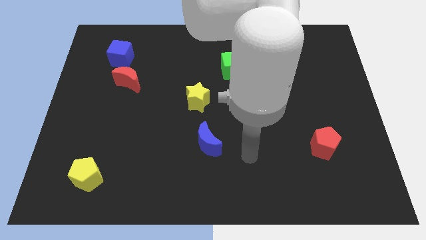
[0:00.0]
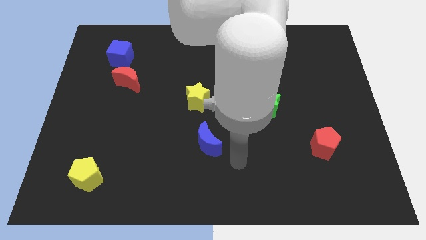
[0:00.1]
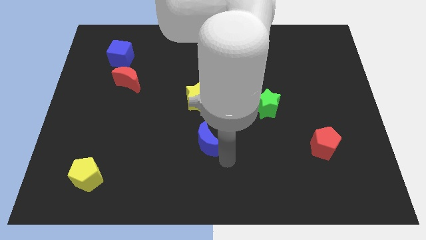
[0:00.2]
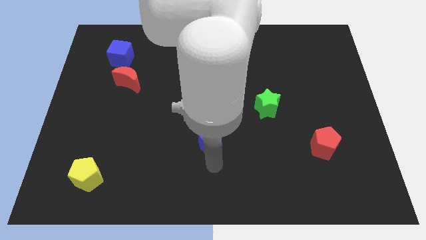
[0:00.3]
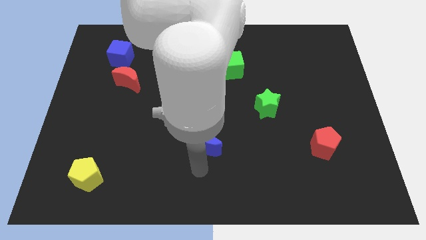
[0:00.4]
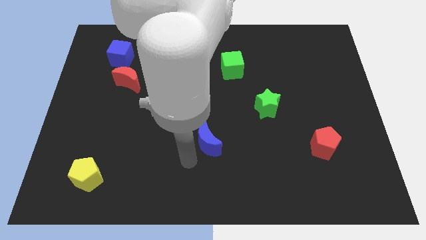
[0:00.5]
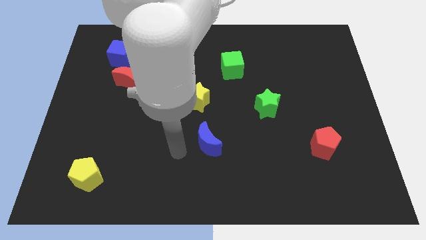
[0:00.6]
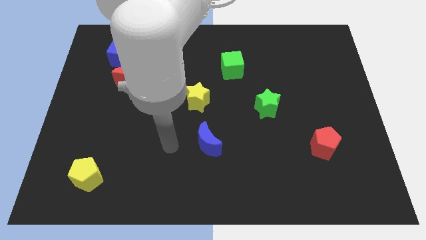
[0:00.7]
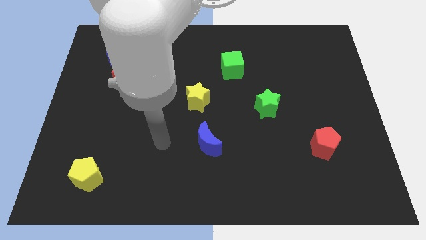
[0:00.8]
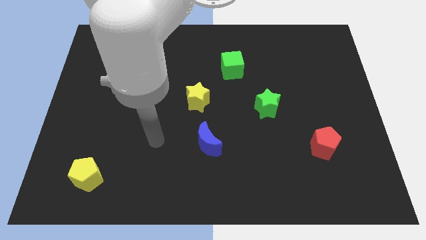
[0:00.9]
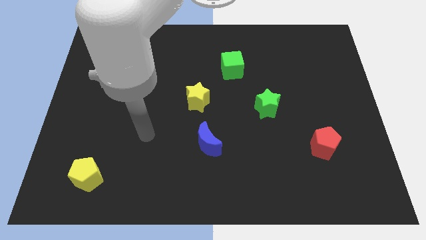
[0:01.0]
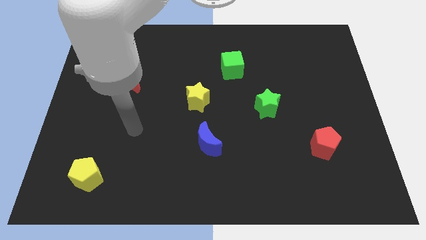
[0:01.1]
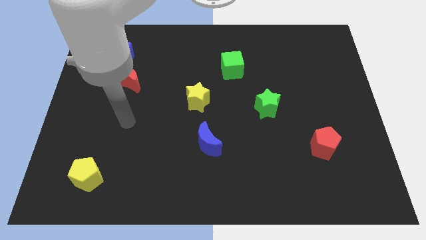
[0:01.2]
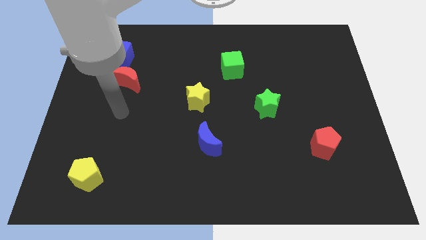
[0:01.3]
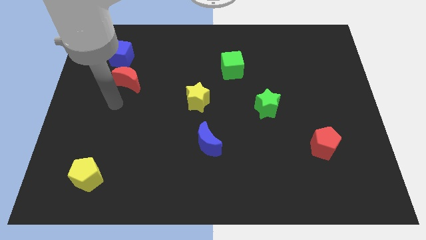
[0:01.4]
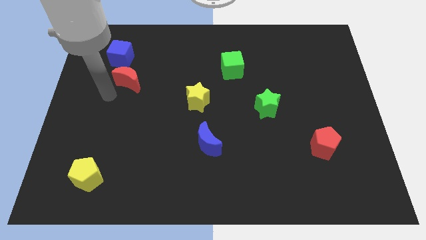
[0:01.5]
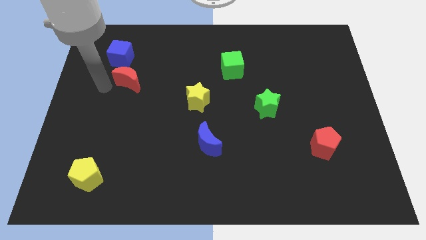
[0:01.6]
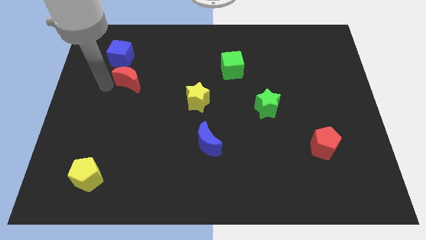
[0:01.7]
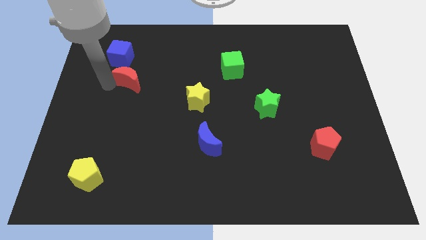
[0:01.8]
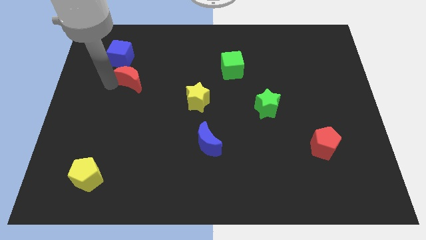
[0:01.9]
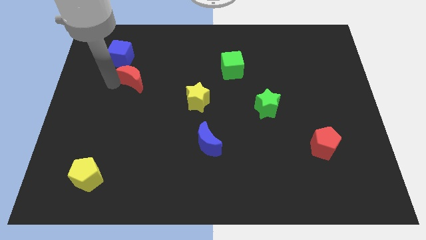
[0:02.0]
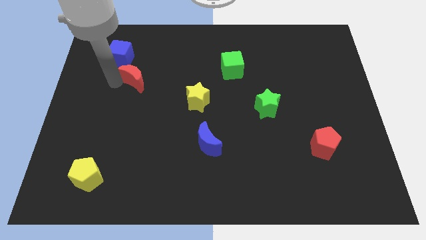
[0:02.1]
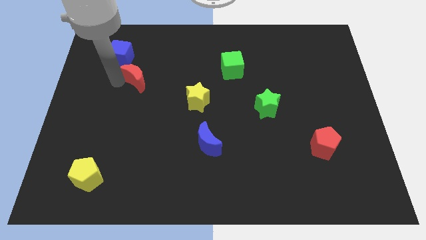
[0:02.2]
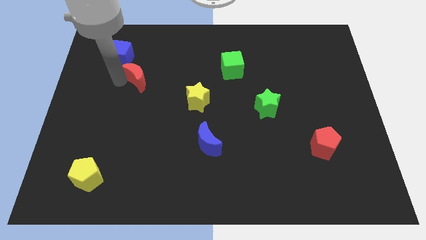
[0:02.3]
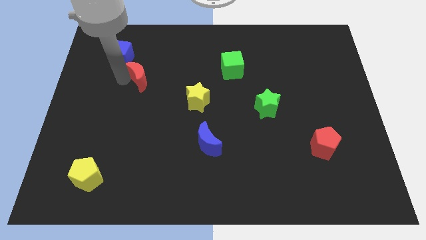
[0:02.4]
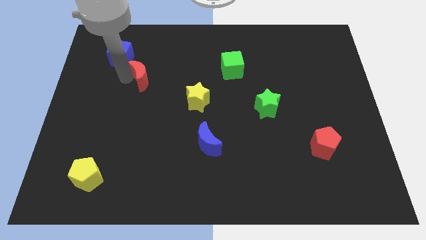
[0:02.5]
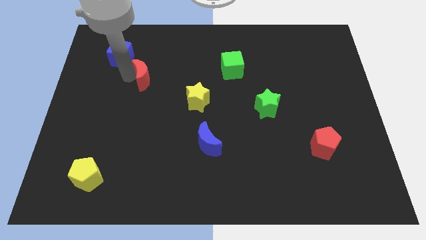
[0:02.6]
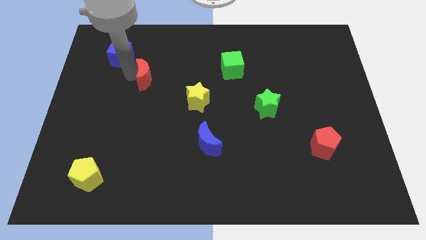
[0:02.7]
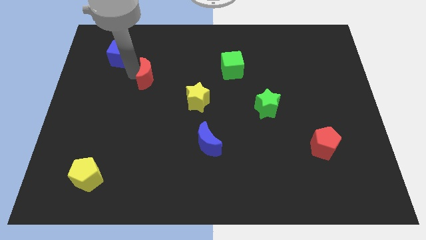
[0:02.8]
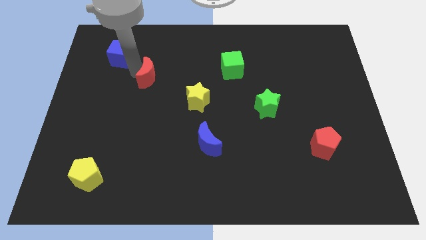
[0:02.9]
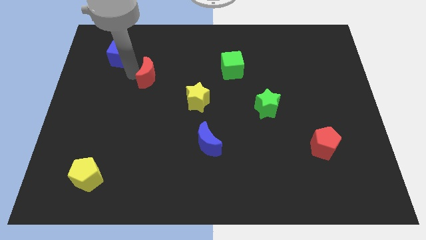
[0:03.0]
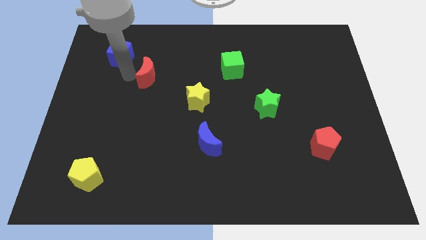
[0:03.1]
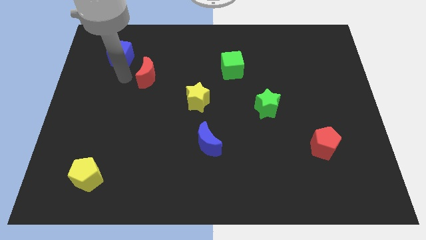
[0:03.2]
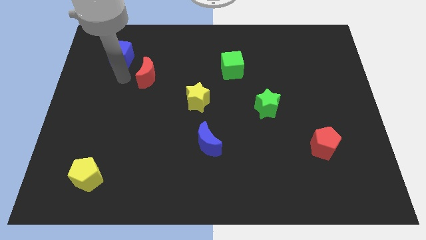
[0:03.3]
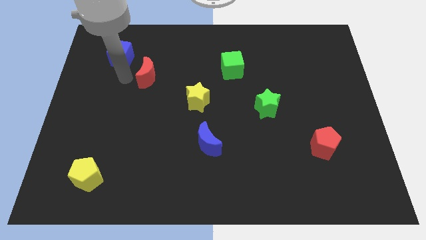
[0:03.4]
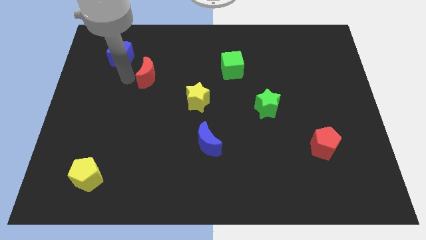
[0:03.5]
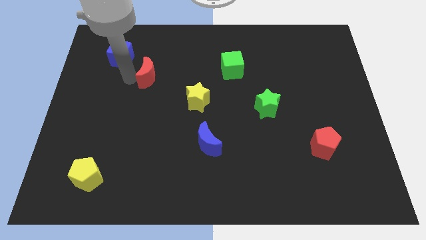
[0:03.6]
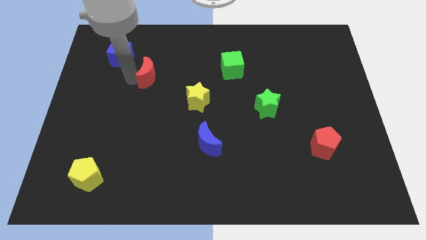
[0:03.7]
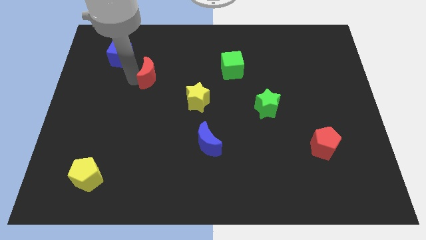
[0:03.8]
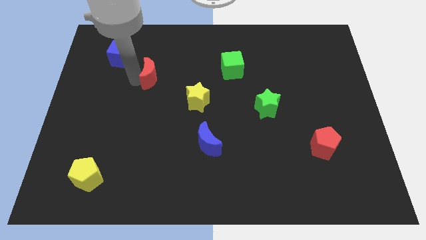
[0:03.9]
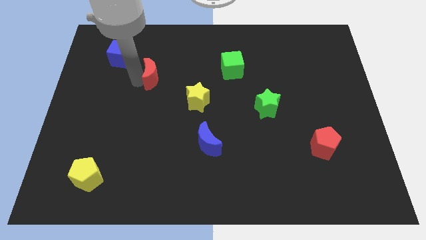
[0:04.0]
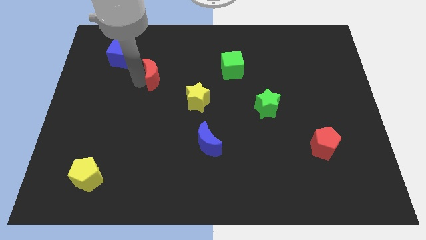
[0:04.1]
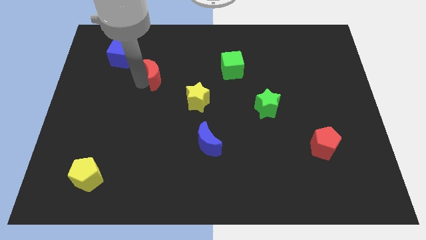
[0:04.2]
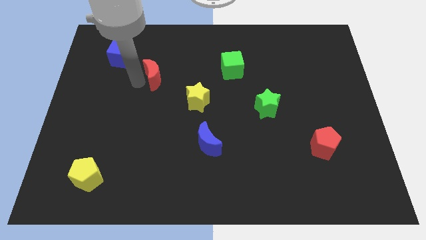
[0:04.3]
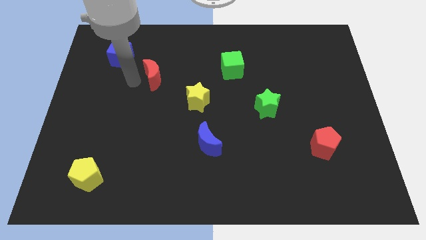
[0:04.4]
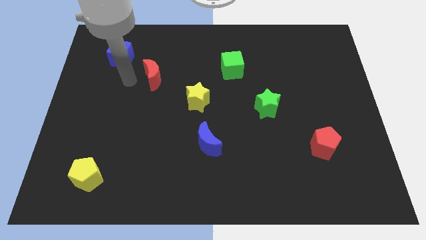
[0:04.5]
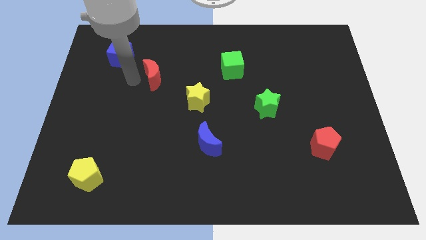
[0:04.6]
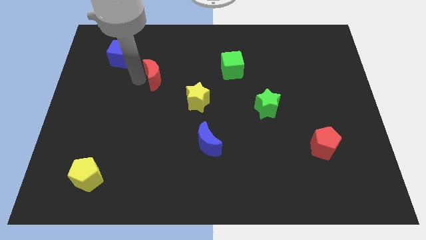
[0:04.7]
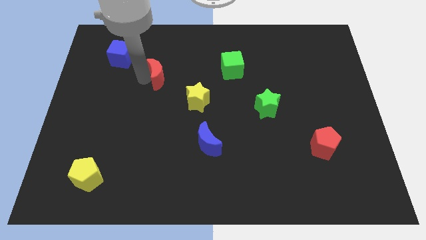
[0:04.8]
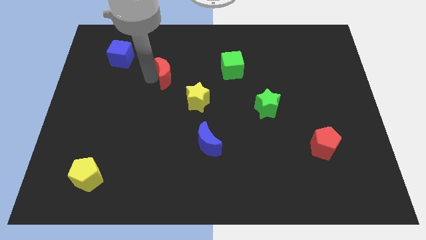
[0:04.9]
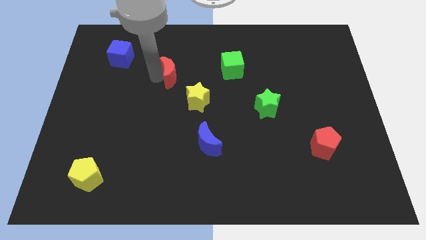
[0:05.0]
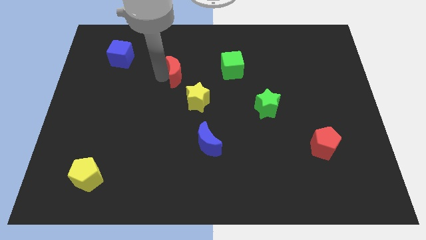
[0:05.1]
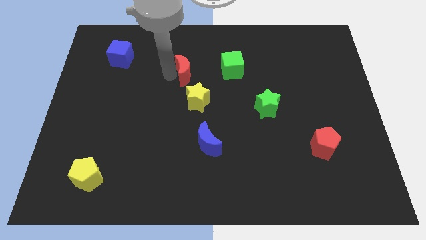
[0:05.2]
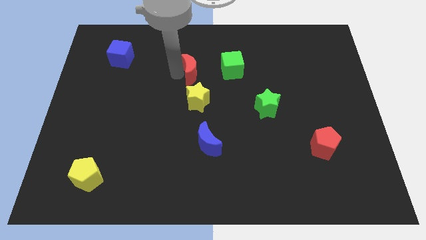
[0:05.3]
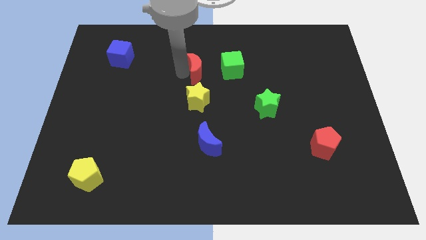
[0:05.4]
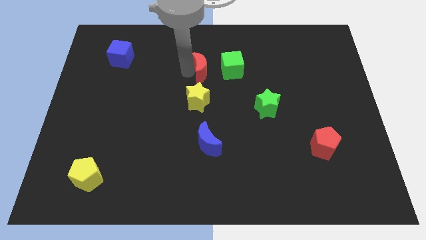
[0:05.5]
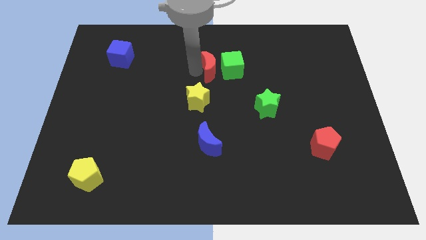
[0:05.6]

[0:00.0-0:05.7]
put the red moon towards the green cube

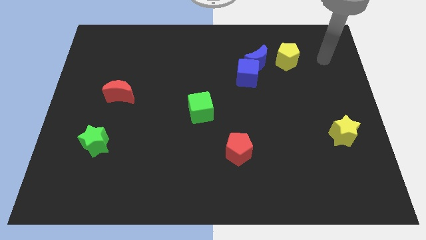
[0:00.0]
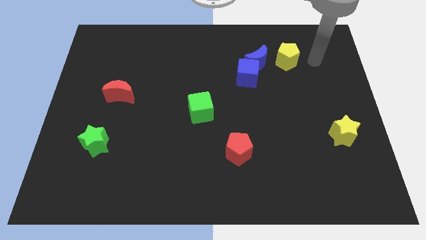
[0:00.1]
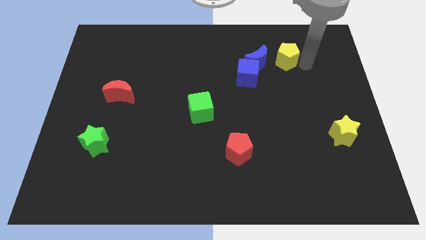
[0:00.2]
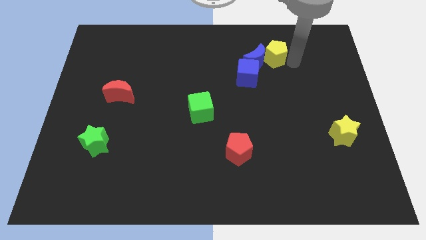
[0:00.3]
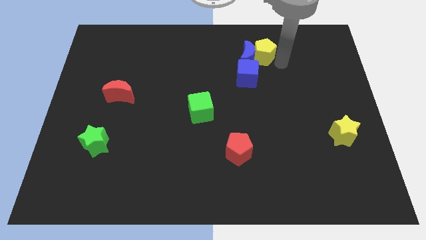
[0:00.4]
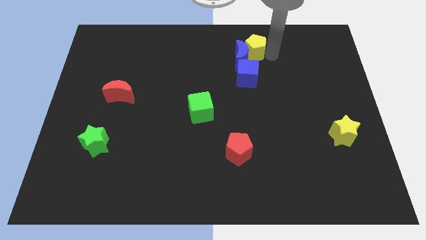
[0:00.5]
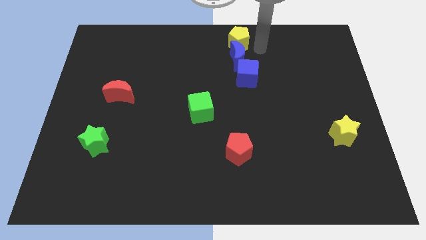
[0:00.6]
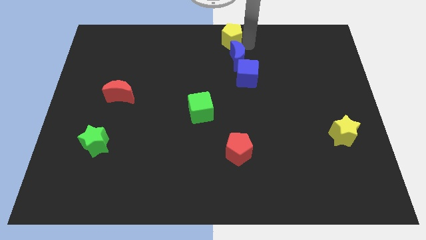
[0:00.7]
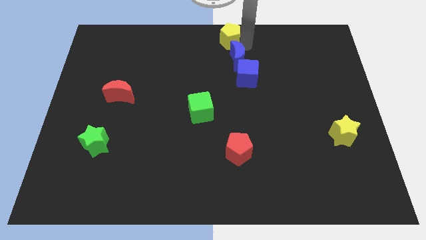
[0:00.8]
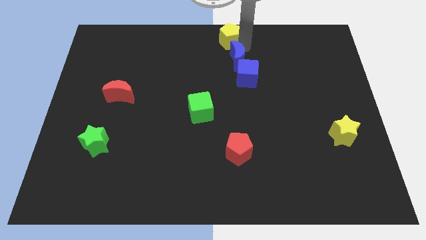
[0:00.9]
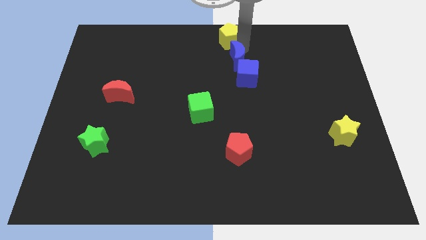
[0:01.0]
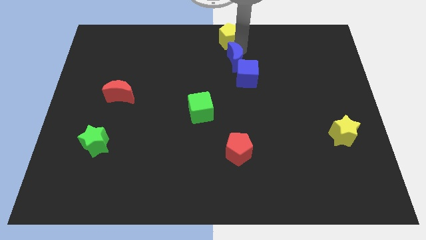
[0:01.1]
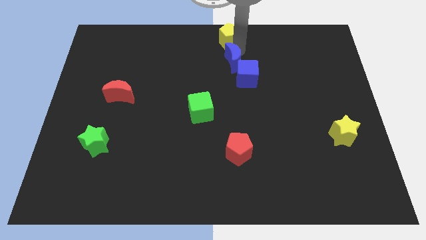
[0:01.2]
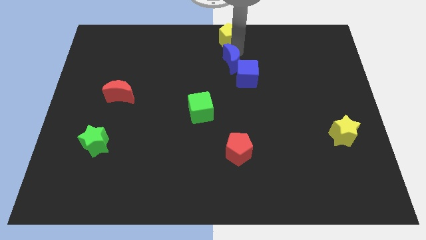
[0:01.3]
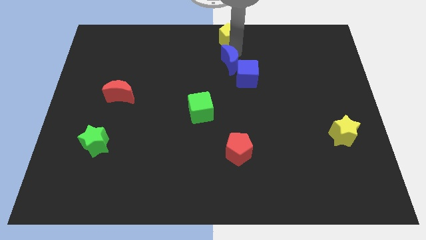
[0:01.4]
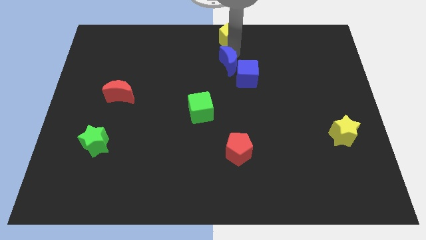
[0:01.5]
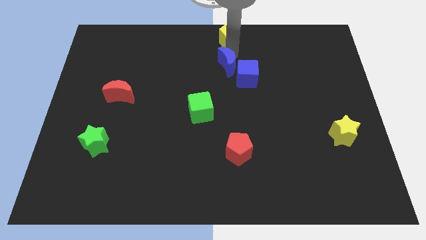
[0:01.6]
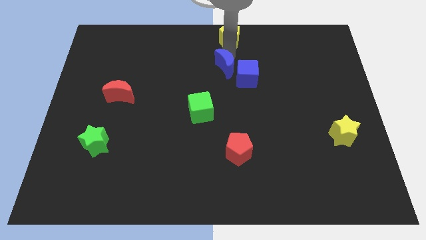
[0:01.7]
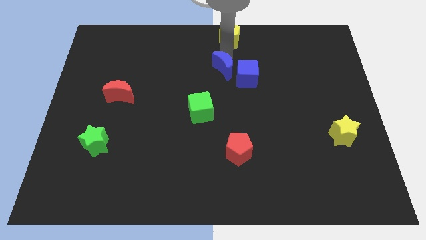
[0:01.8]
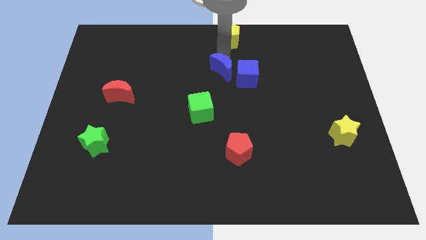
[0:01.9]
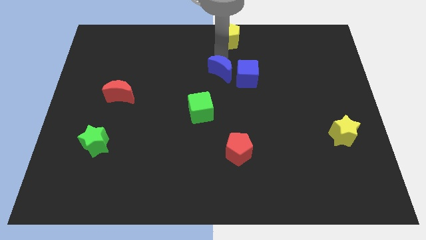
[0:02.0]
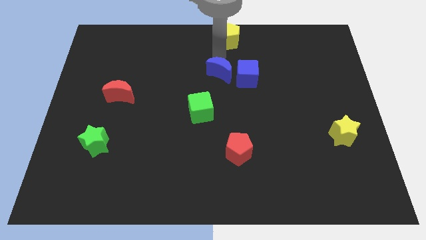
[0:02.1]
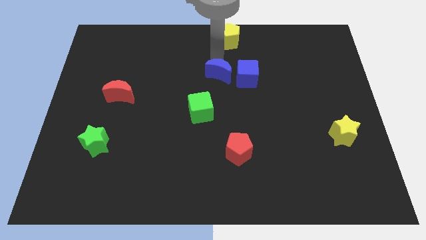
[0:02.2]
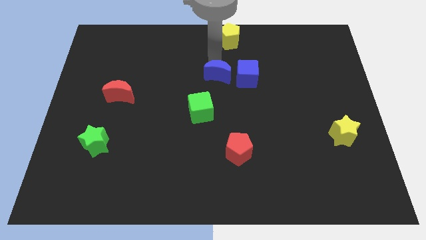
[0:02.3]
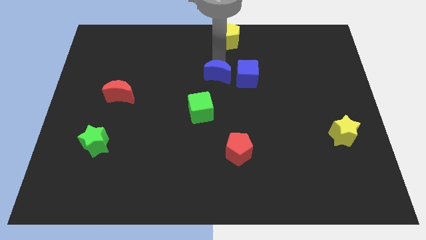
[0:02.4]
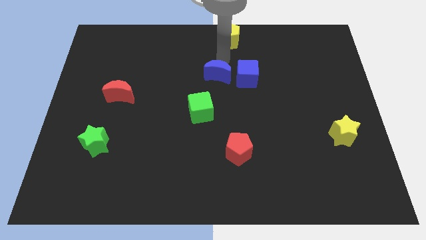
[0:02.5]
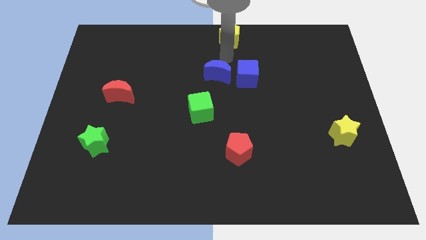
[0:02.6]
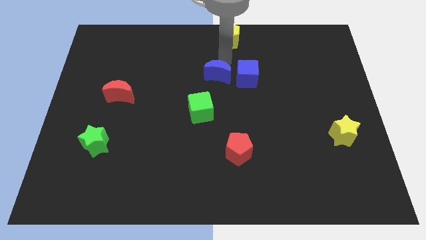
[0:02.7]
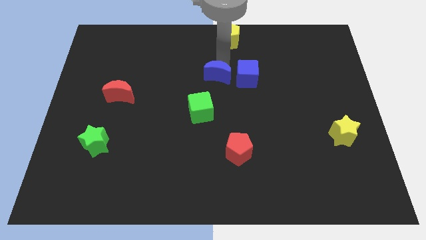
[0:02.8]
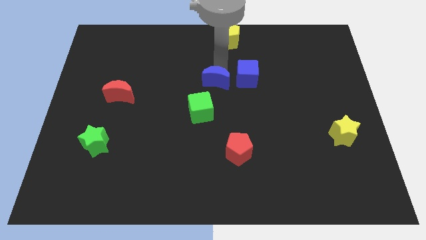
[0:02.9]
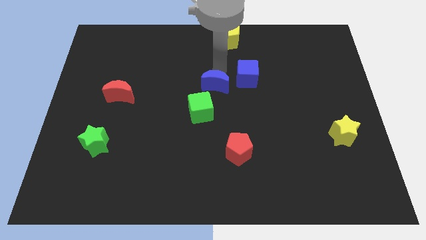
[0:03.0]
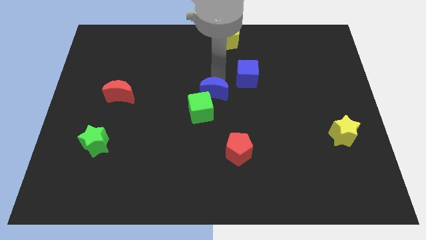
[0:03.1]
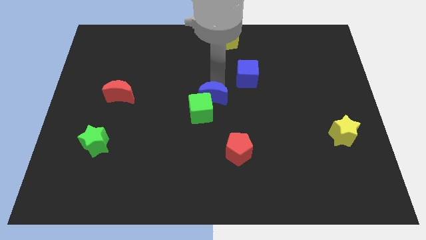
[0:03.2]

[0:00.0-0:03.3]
push the blue moon close to the green cube
